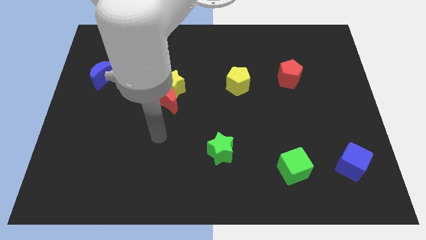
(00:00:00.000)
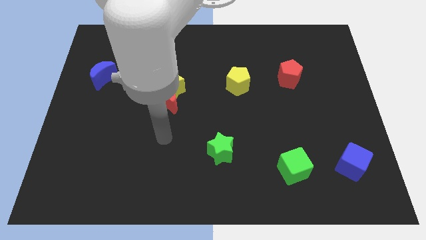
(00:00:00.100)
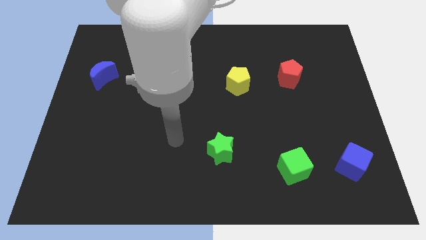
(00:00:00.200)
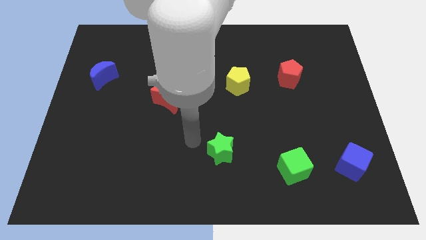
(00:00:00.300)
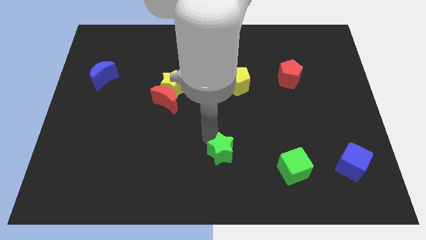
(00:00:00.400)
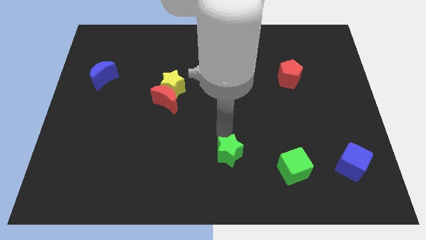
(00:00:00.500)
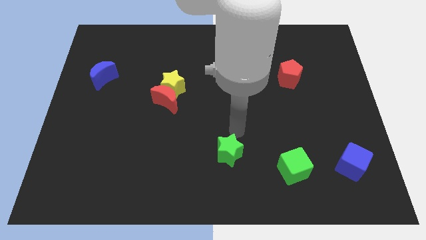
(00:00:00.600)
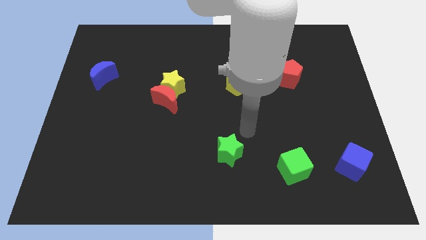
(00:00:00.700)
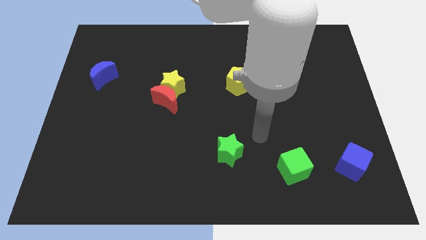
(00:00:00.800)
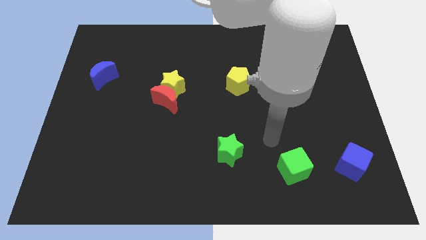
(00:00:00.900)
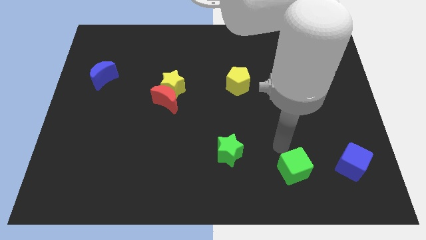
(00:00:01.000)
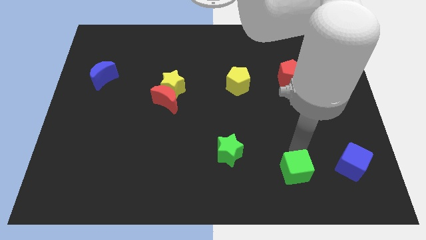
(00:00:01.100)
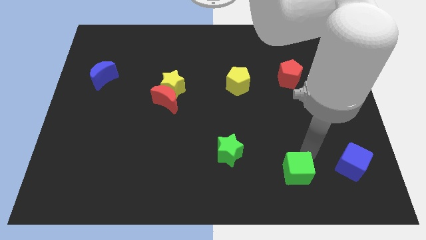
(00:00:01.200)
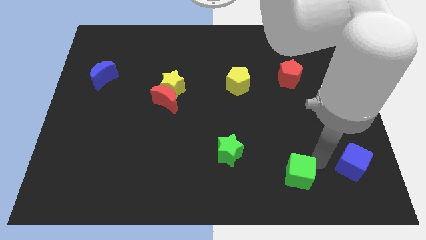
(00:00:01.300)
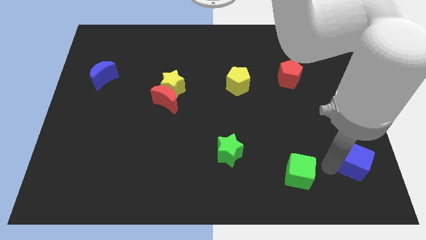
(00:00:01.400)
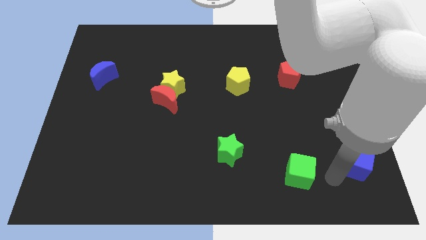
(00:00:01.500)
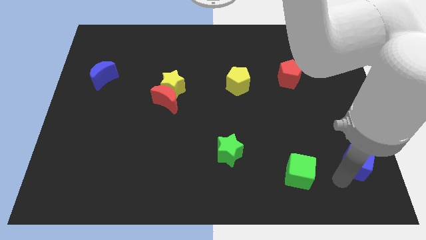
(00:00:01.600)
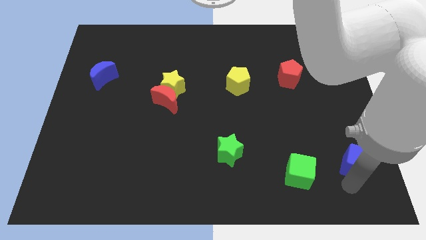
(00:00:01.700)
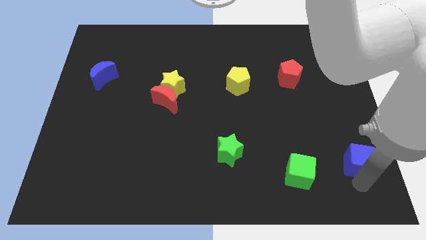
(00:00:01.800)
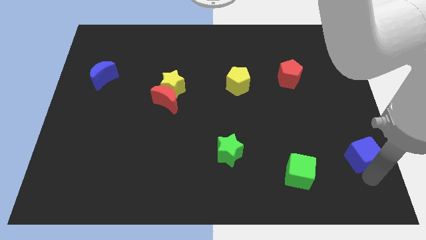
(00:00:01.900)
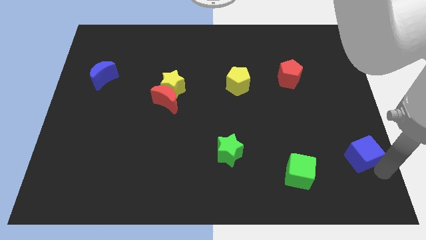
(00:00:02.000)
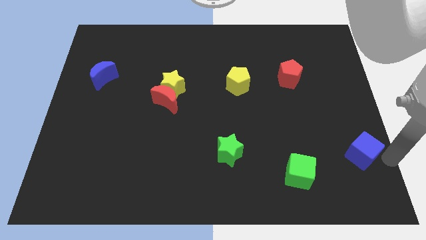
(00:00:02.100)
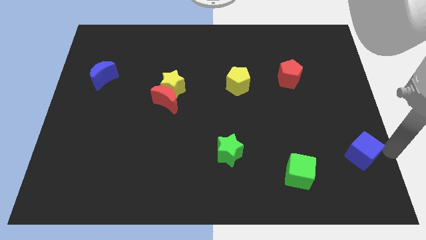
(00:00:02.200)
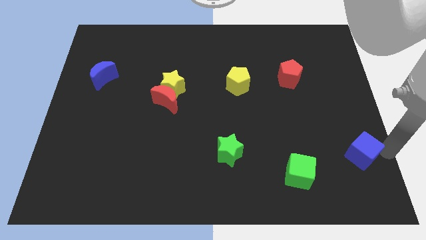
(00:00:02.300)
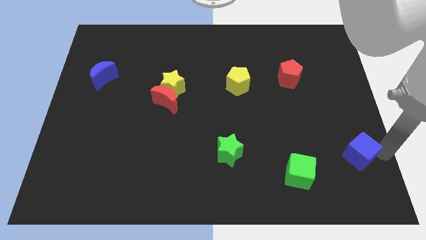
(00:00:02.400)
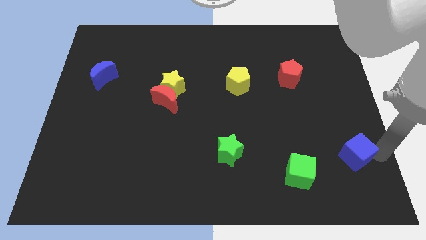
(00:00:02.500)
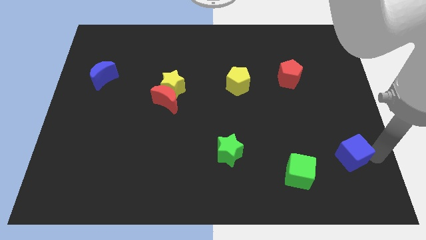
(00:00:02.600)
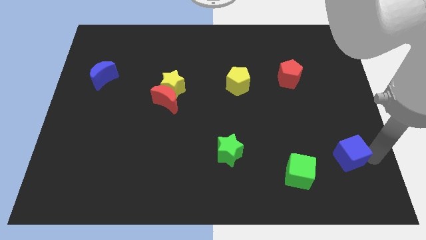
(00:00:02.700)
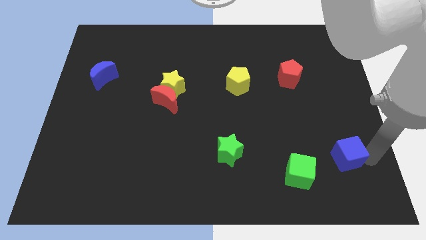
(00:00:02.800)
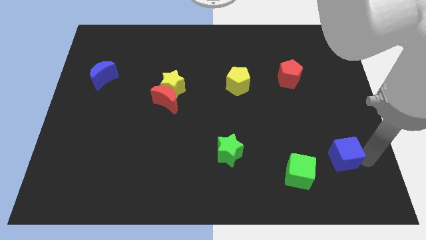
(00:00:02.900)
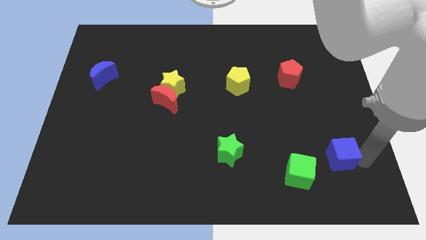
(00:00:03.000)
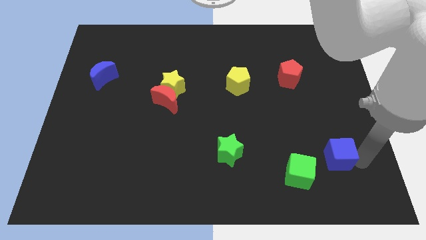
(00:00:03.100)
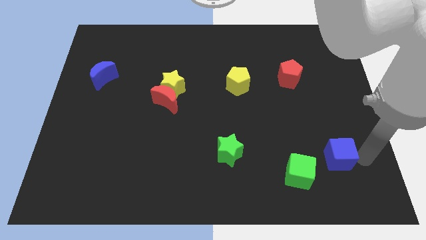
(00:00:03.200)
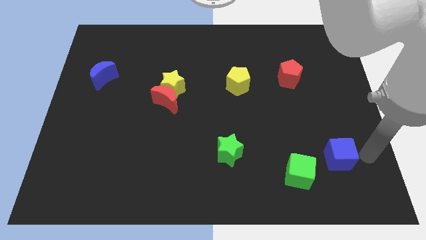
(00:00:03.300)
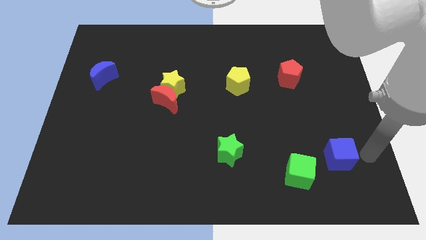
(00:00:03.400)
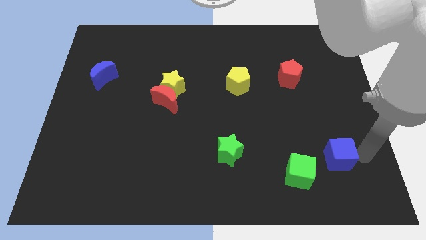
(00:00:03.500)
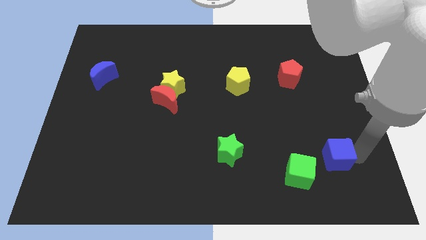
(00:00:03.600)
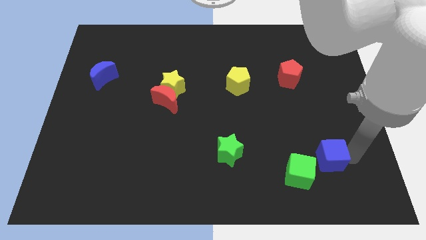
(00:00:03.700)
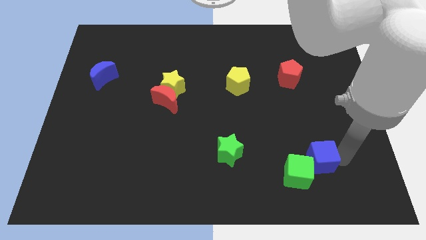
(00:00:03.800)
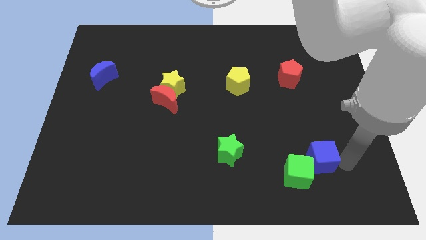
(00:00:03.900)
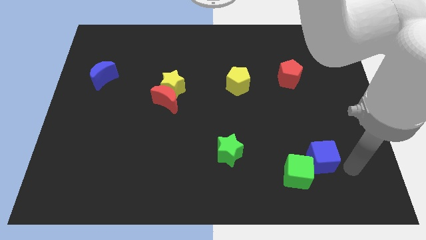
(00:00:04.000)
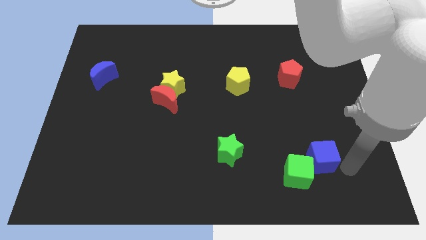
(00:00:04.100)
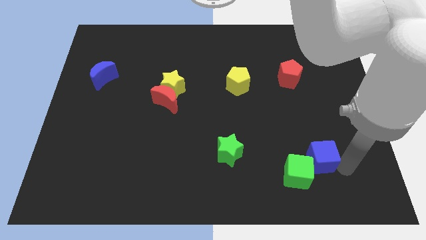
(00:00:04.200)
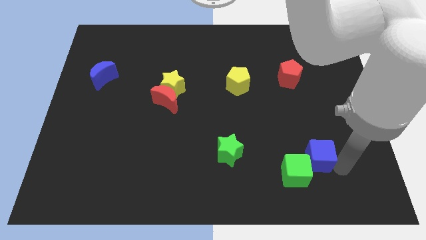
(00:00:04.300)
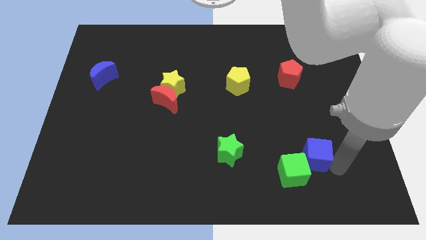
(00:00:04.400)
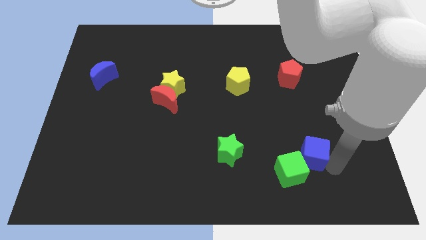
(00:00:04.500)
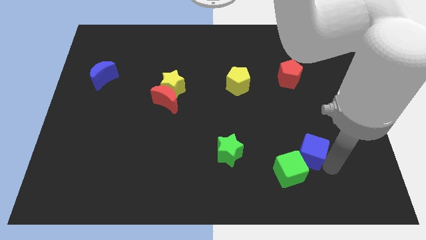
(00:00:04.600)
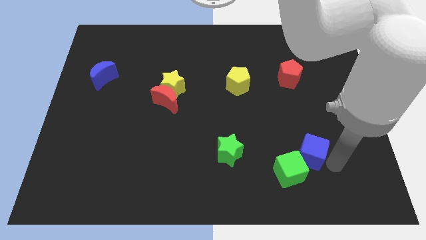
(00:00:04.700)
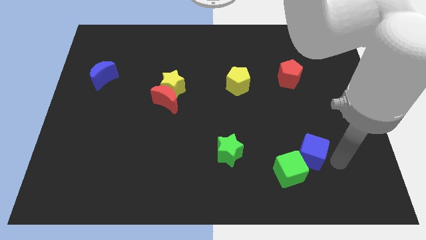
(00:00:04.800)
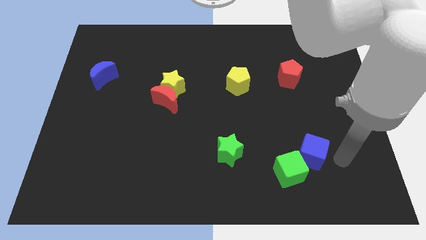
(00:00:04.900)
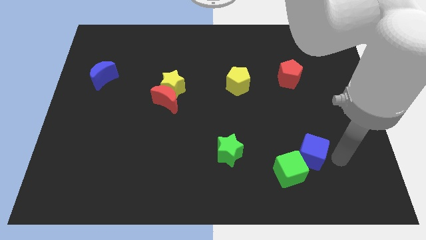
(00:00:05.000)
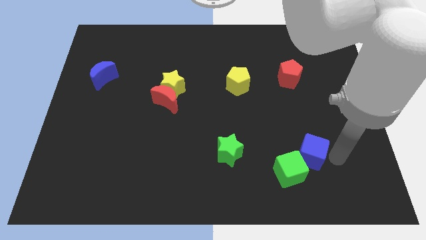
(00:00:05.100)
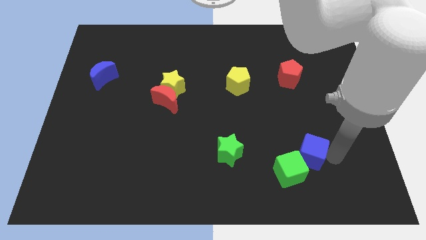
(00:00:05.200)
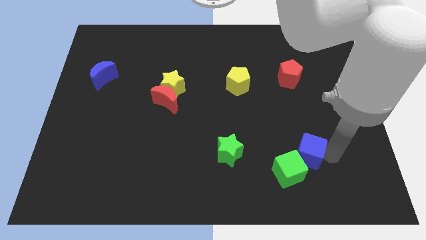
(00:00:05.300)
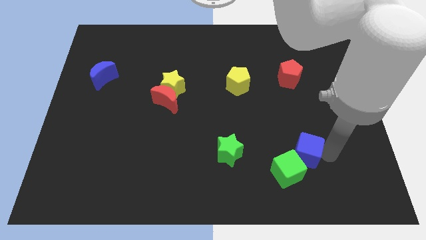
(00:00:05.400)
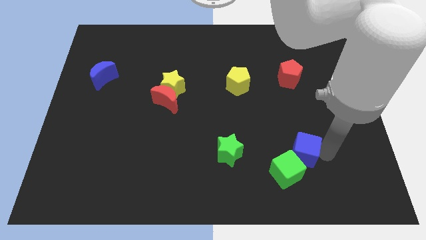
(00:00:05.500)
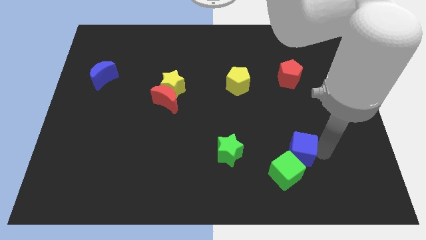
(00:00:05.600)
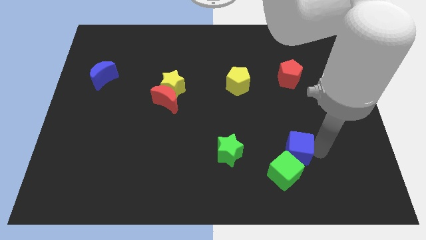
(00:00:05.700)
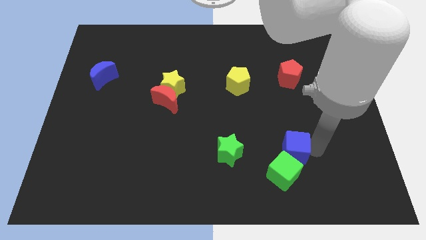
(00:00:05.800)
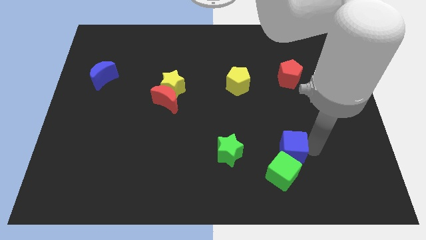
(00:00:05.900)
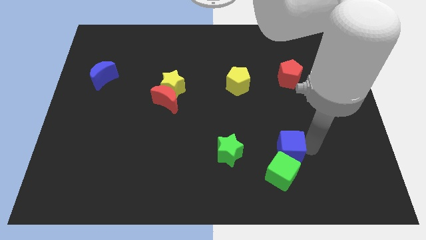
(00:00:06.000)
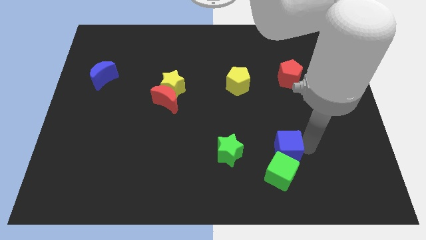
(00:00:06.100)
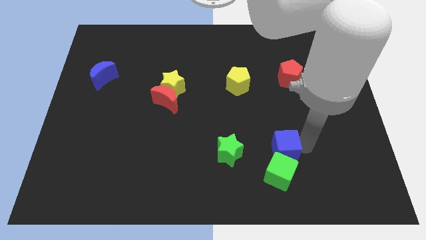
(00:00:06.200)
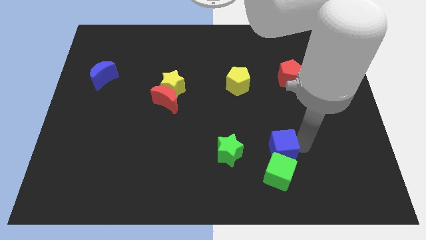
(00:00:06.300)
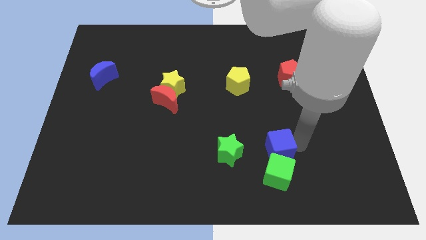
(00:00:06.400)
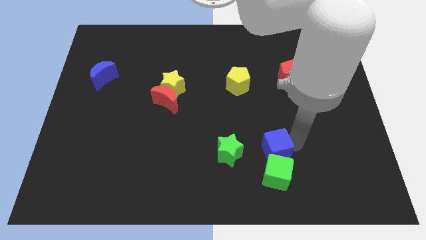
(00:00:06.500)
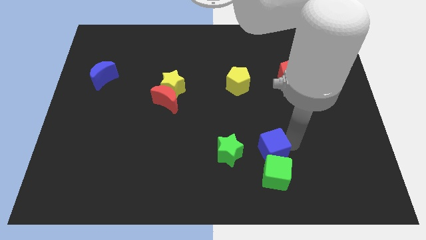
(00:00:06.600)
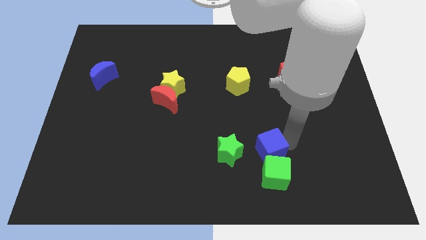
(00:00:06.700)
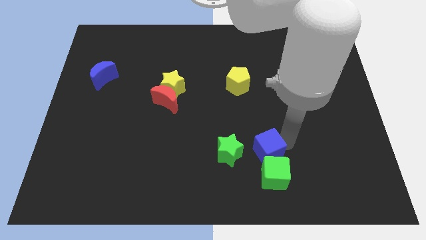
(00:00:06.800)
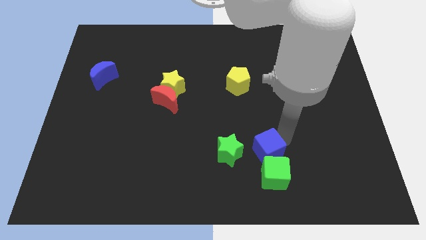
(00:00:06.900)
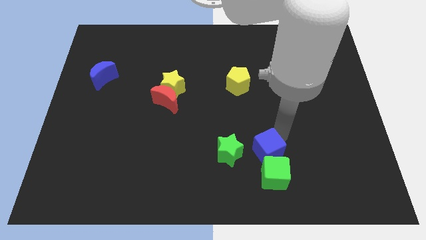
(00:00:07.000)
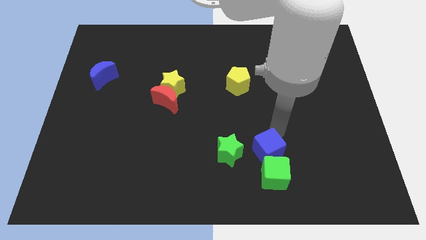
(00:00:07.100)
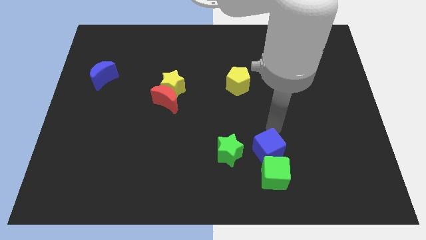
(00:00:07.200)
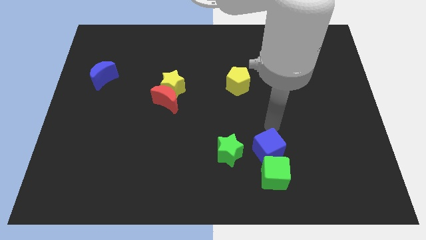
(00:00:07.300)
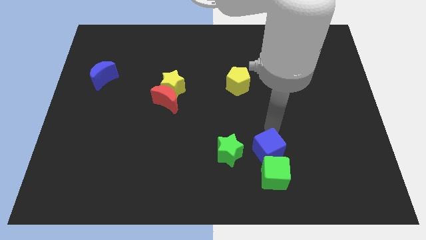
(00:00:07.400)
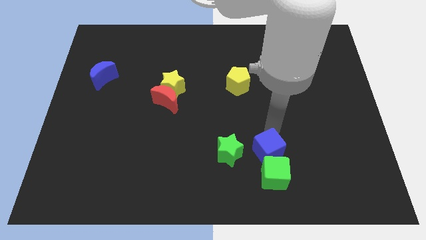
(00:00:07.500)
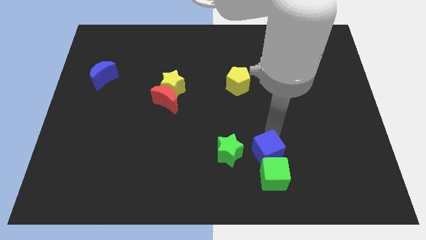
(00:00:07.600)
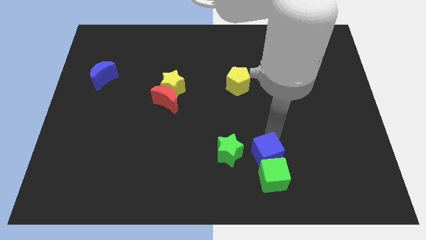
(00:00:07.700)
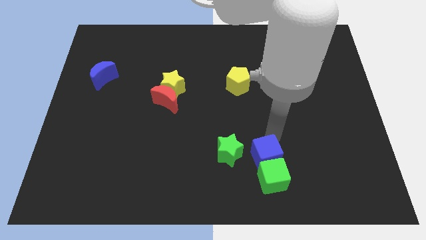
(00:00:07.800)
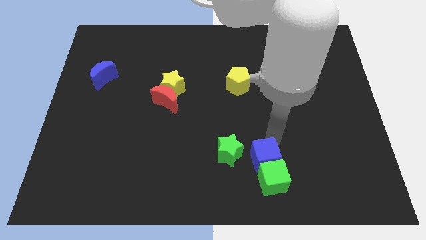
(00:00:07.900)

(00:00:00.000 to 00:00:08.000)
push the blue cube to the bottom right side of the green star
